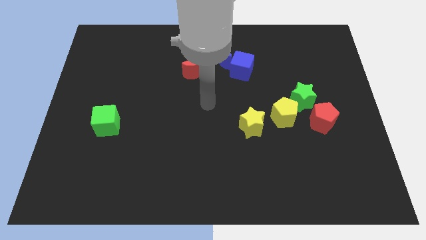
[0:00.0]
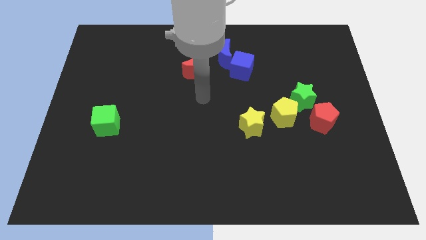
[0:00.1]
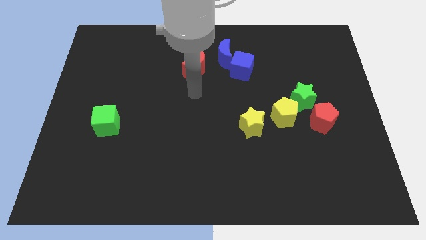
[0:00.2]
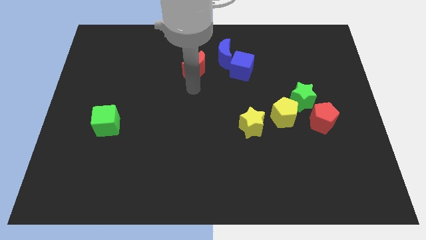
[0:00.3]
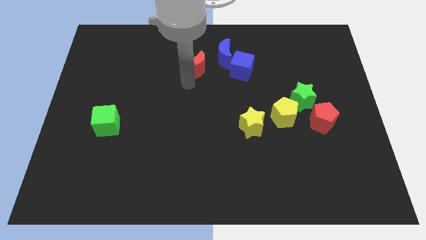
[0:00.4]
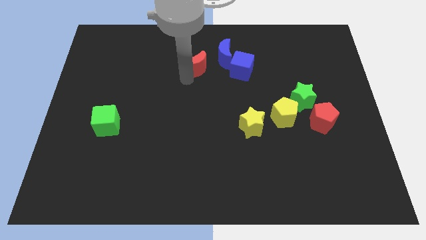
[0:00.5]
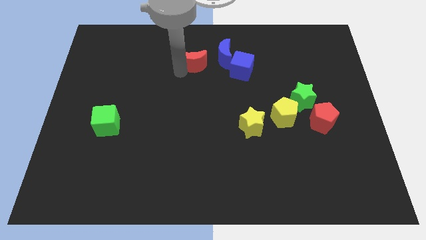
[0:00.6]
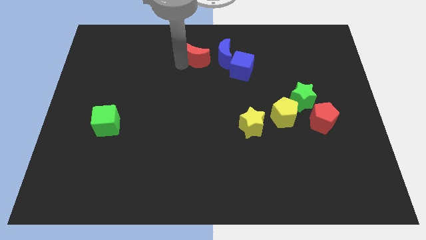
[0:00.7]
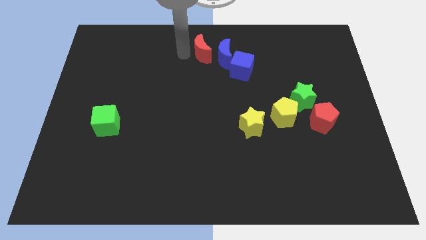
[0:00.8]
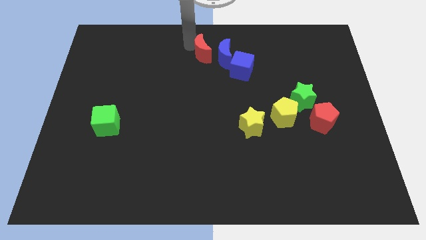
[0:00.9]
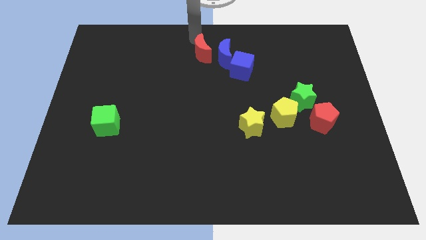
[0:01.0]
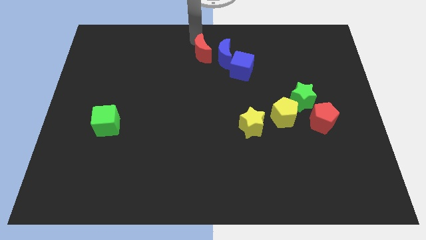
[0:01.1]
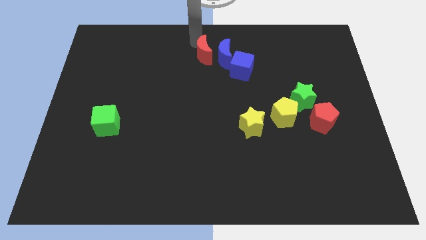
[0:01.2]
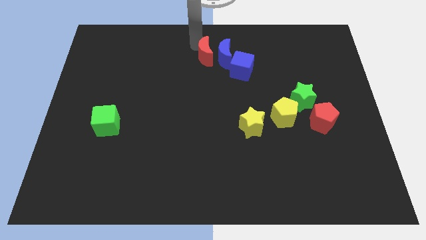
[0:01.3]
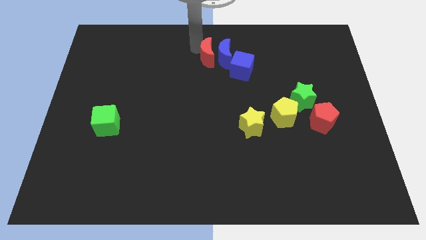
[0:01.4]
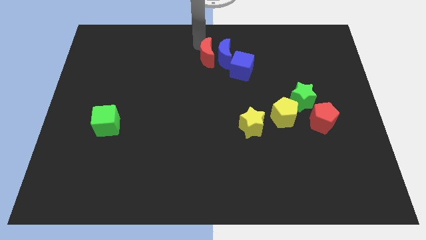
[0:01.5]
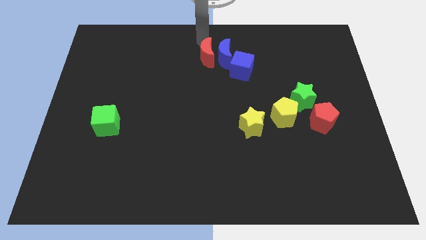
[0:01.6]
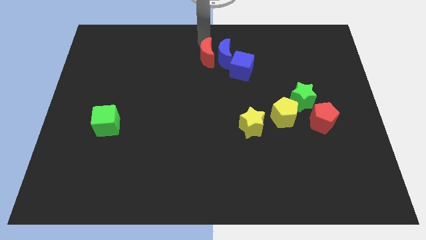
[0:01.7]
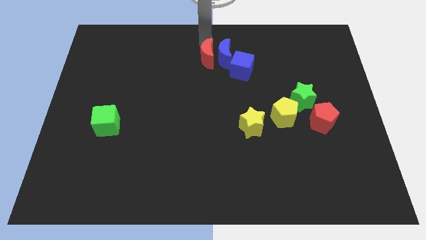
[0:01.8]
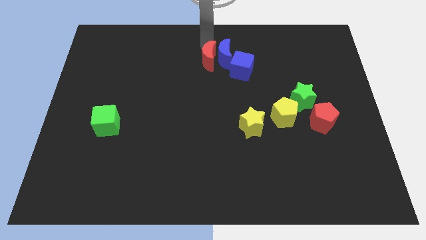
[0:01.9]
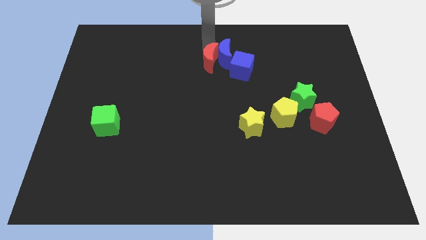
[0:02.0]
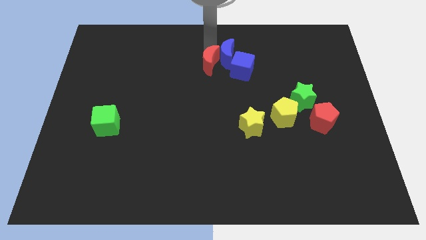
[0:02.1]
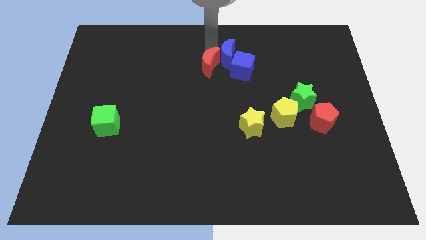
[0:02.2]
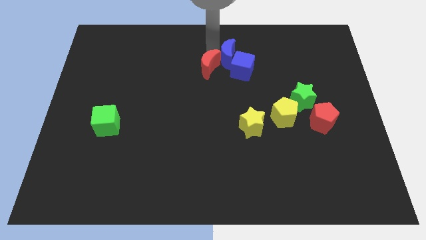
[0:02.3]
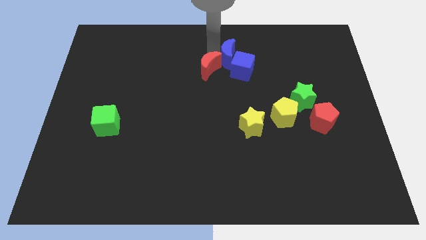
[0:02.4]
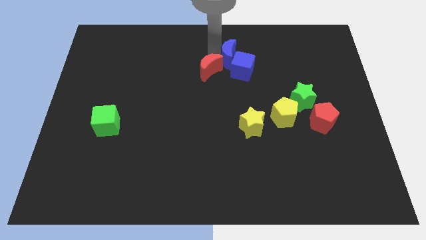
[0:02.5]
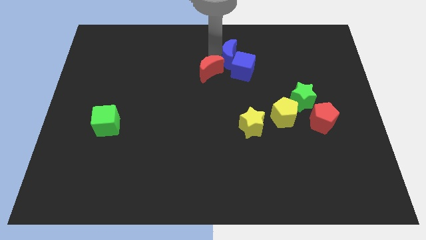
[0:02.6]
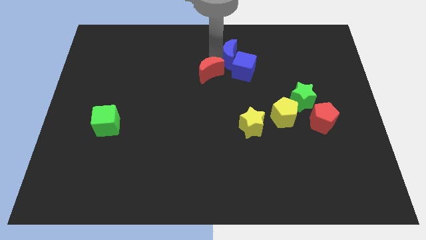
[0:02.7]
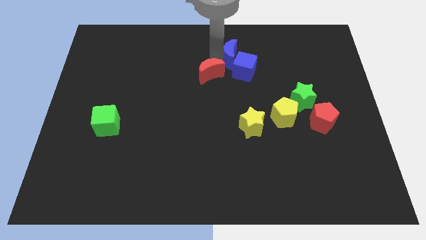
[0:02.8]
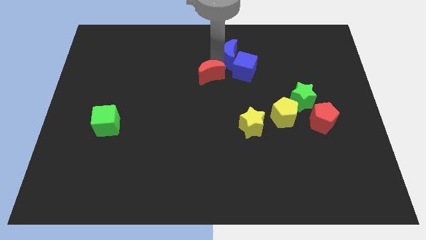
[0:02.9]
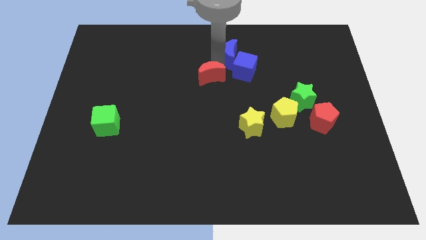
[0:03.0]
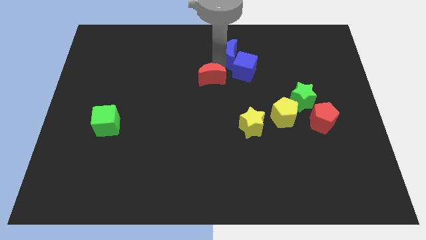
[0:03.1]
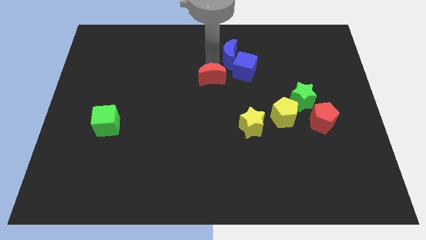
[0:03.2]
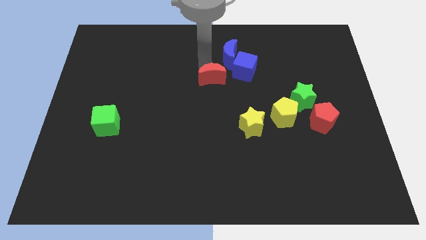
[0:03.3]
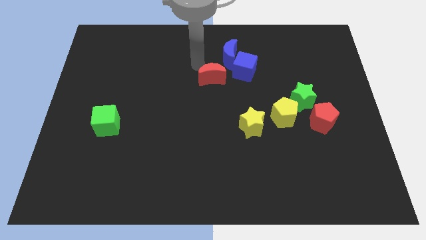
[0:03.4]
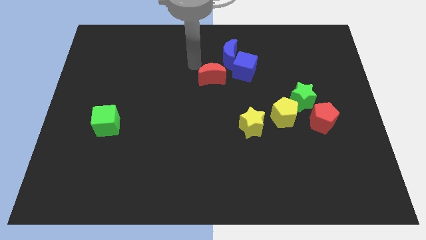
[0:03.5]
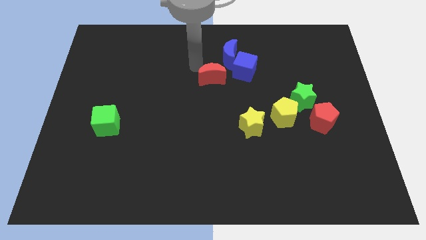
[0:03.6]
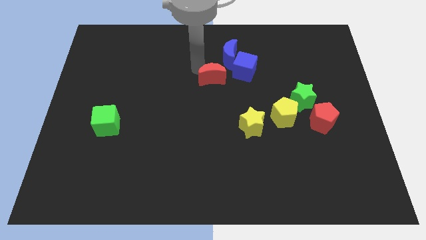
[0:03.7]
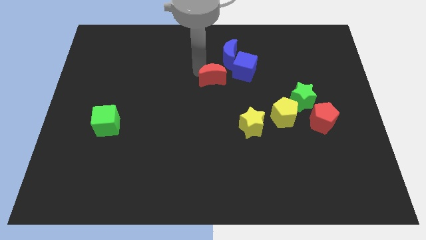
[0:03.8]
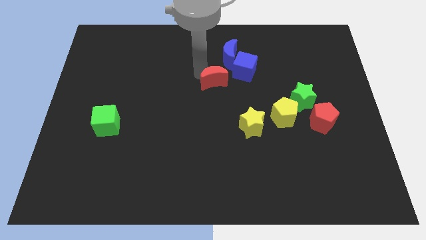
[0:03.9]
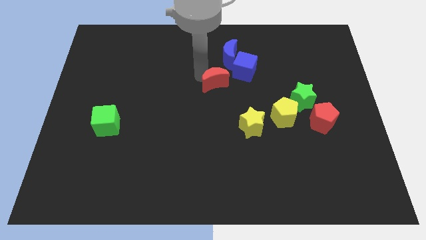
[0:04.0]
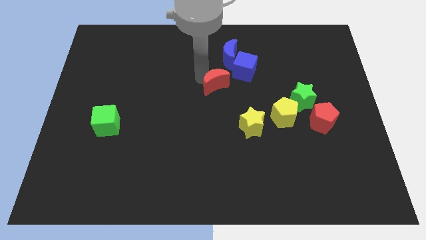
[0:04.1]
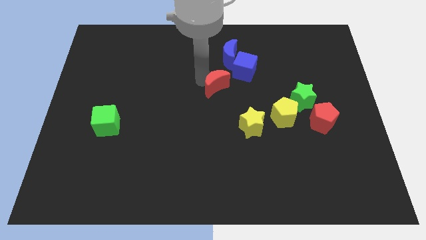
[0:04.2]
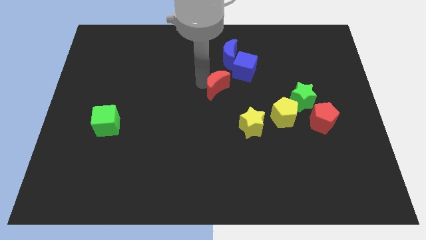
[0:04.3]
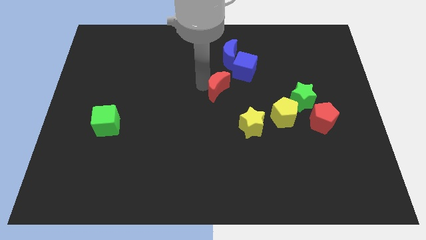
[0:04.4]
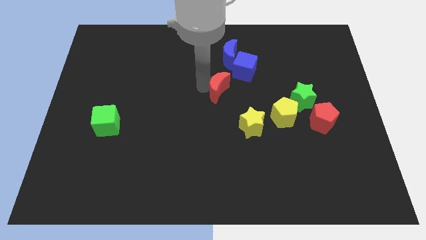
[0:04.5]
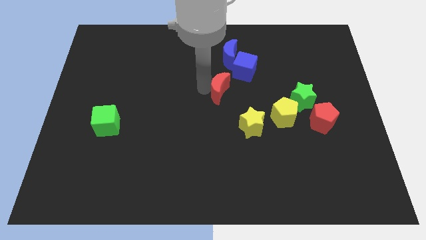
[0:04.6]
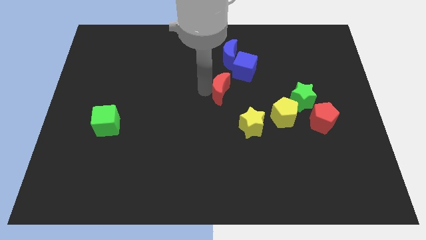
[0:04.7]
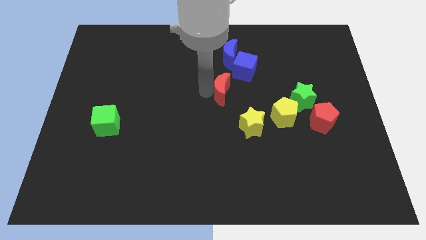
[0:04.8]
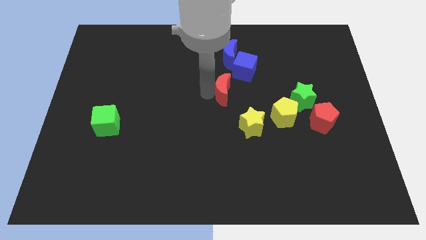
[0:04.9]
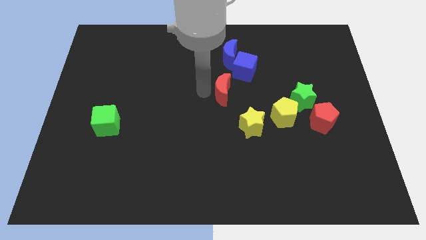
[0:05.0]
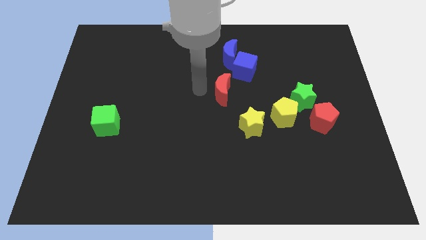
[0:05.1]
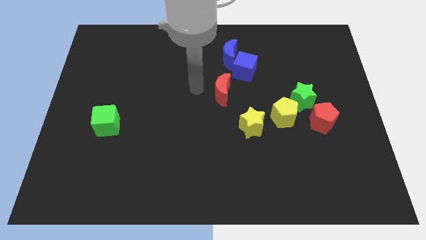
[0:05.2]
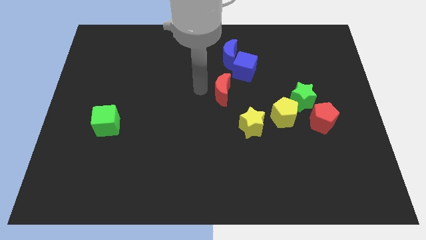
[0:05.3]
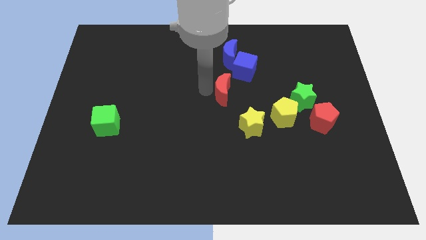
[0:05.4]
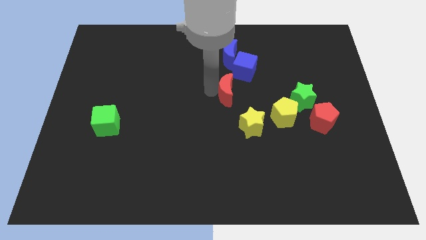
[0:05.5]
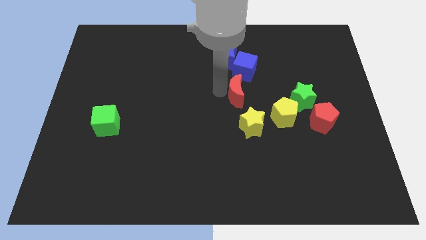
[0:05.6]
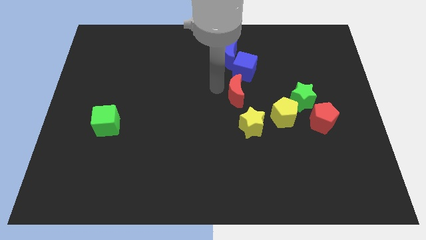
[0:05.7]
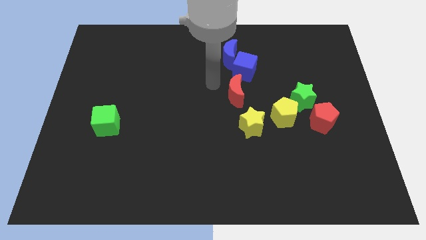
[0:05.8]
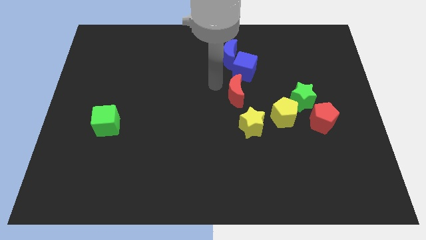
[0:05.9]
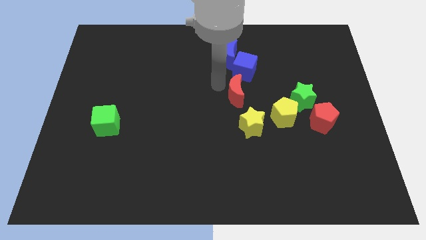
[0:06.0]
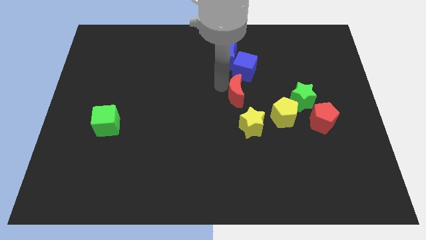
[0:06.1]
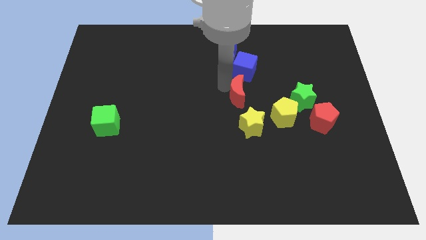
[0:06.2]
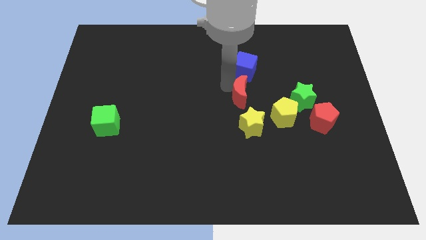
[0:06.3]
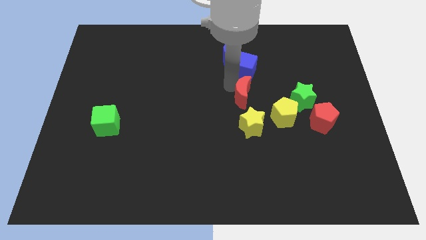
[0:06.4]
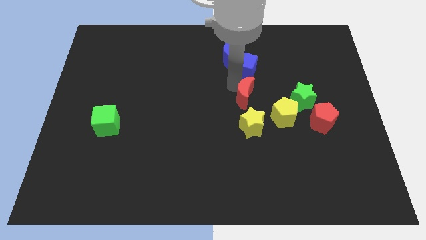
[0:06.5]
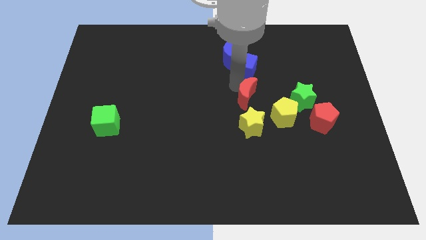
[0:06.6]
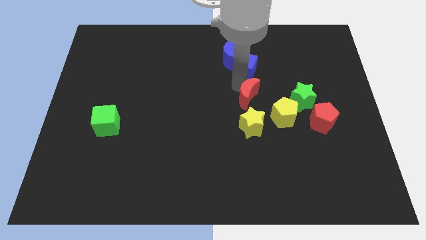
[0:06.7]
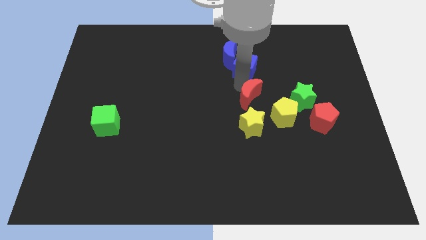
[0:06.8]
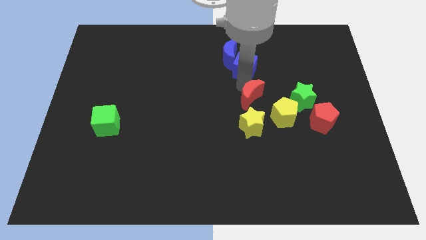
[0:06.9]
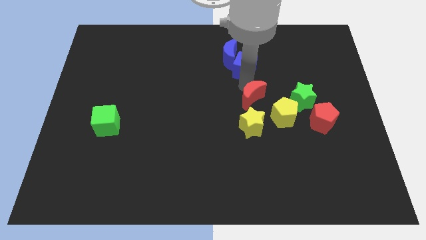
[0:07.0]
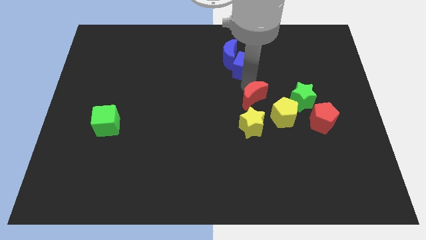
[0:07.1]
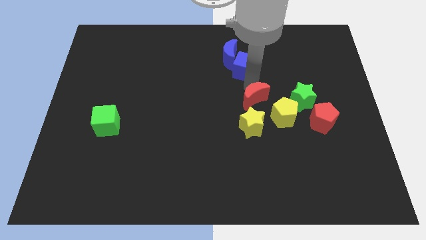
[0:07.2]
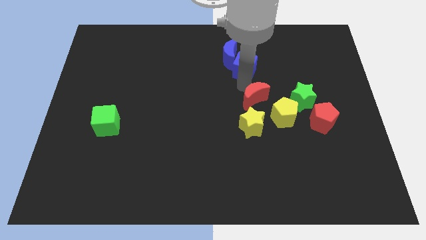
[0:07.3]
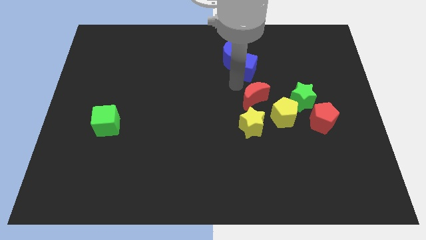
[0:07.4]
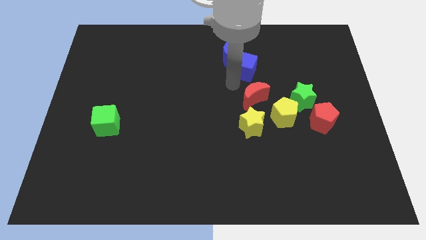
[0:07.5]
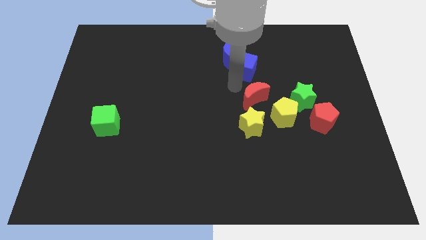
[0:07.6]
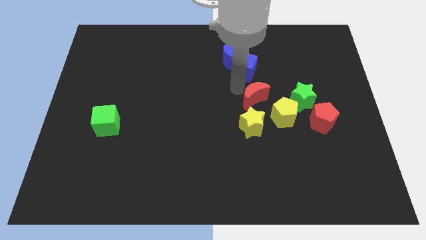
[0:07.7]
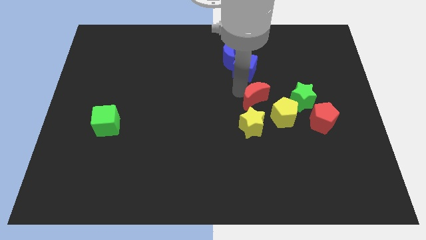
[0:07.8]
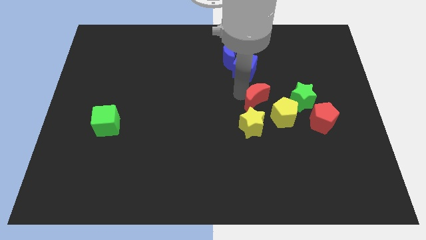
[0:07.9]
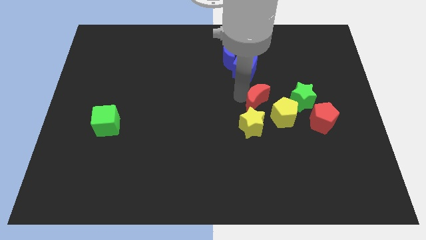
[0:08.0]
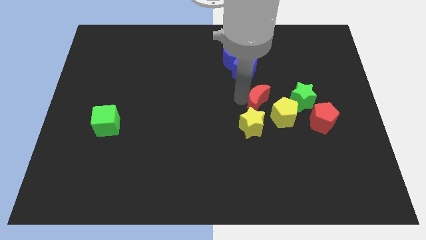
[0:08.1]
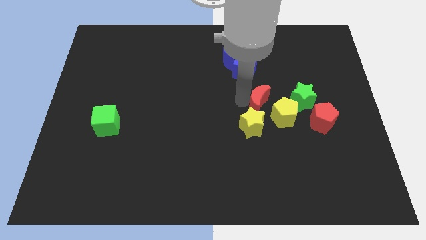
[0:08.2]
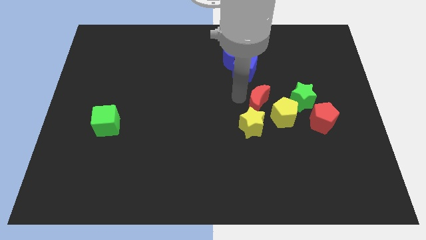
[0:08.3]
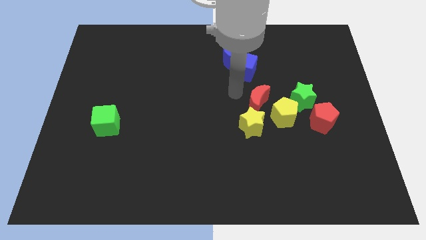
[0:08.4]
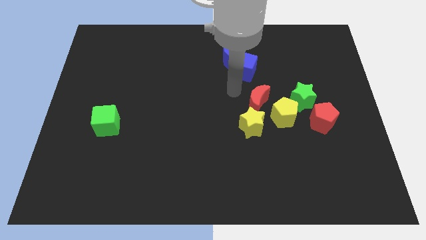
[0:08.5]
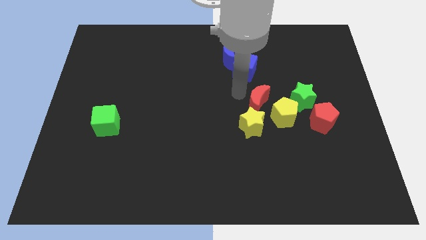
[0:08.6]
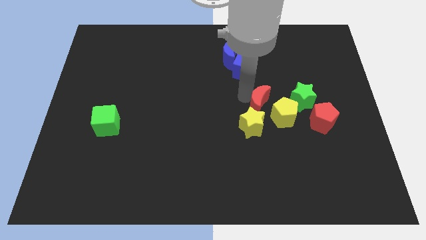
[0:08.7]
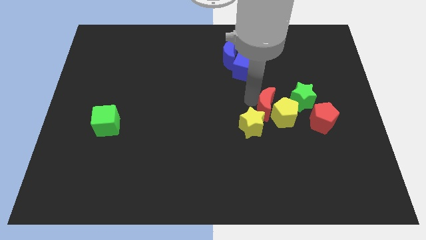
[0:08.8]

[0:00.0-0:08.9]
slide the red moon towards the yellow pentagon
